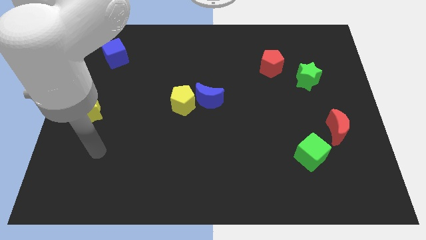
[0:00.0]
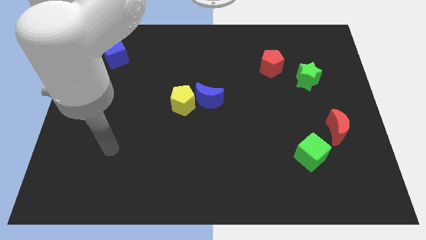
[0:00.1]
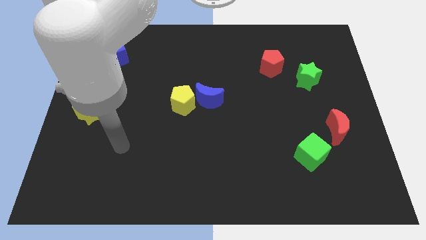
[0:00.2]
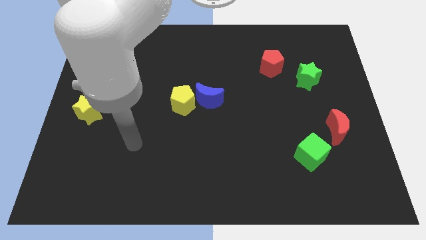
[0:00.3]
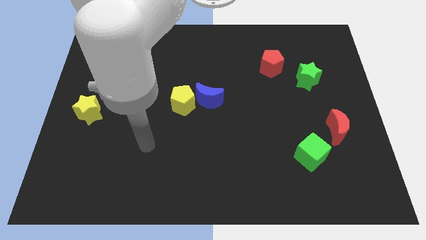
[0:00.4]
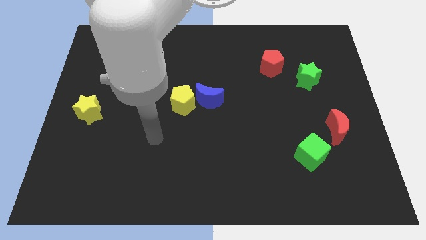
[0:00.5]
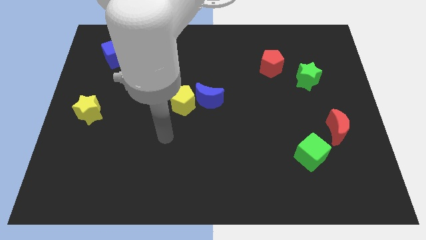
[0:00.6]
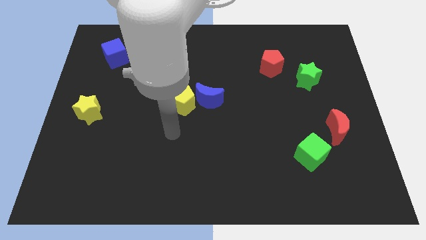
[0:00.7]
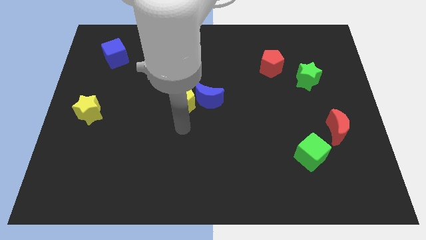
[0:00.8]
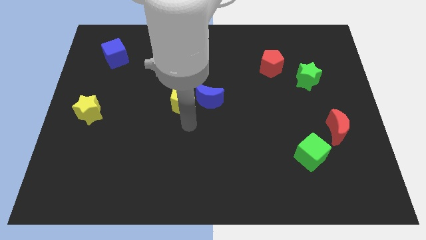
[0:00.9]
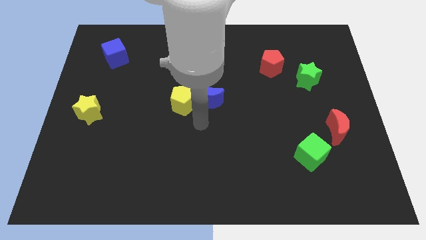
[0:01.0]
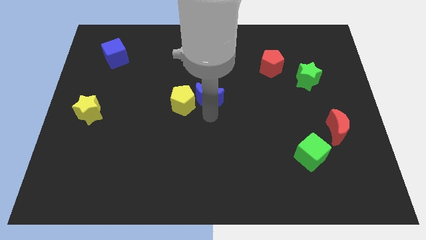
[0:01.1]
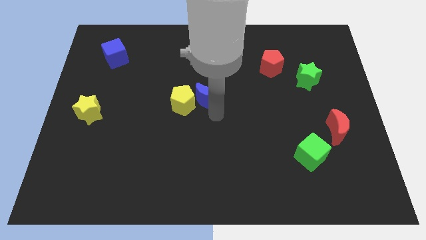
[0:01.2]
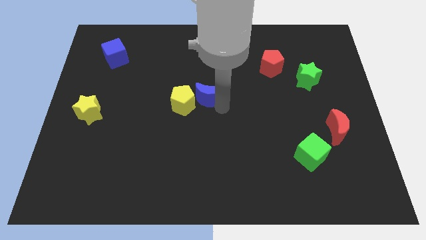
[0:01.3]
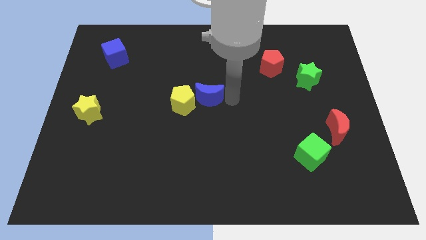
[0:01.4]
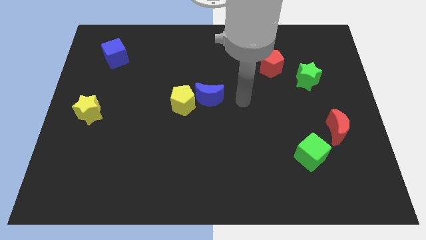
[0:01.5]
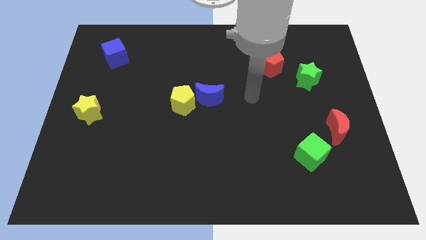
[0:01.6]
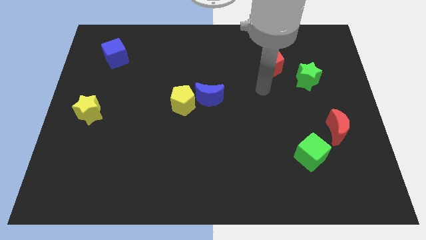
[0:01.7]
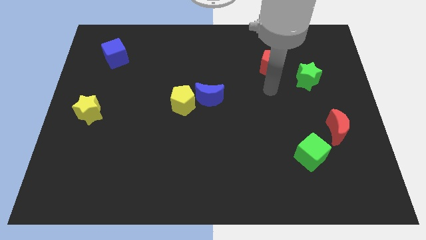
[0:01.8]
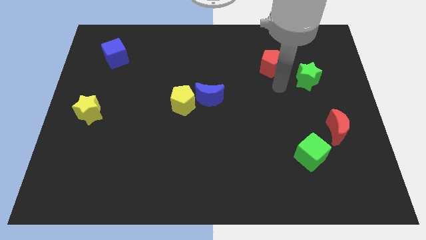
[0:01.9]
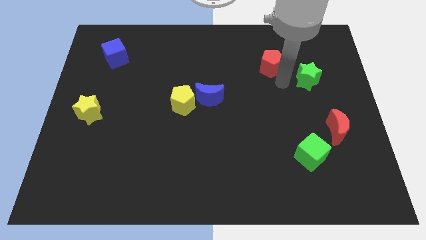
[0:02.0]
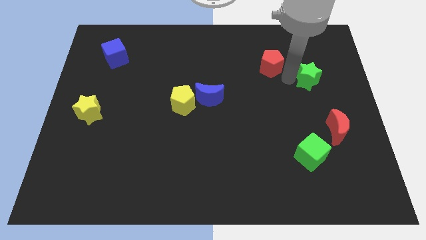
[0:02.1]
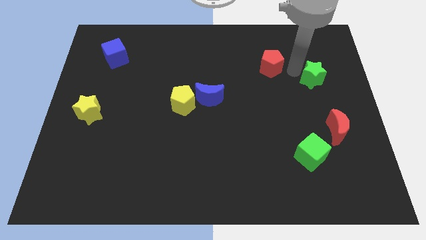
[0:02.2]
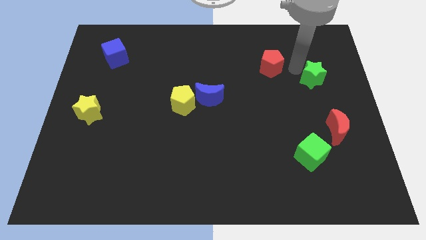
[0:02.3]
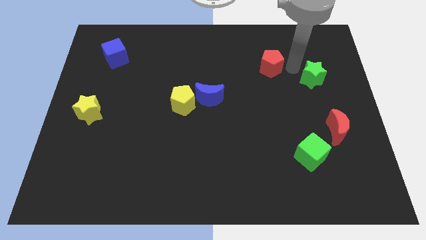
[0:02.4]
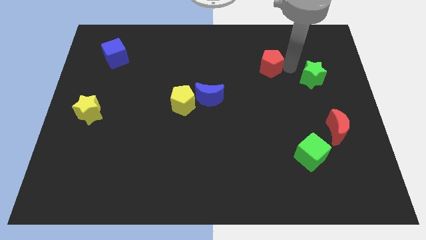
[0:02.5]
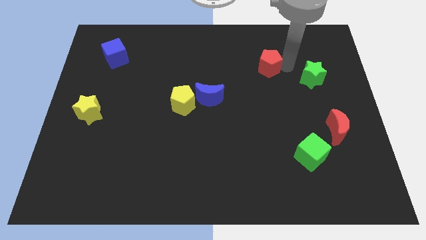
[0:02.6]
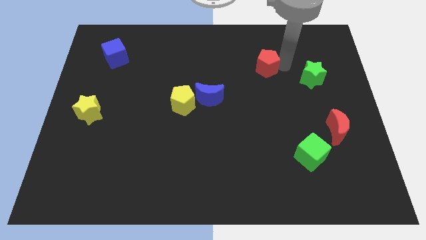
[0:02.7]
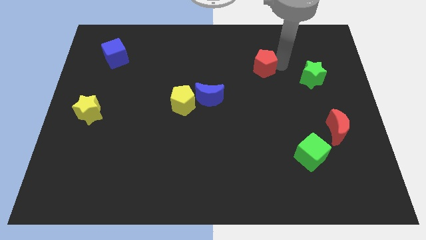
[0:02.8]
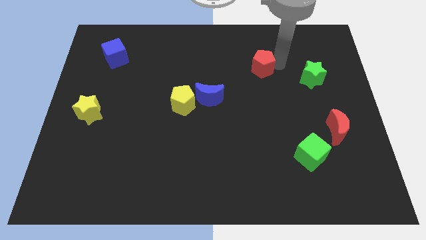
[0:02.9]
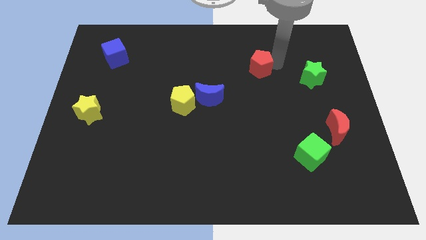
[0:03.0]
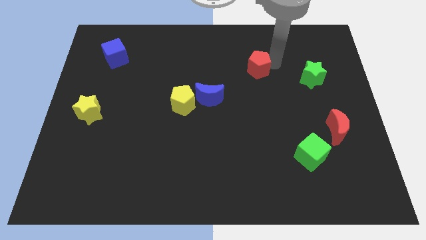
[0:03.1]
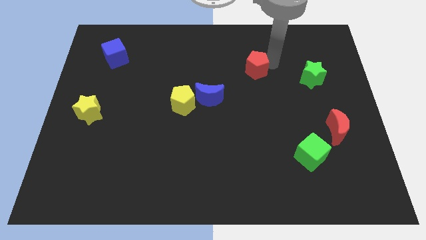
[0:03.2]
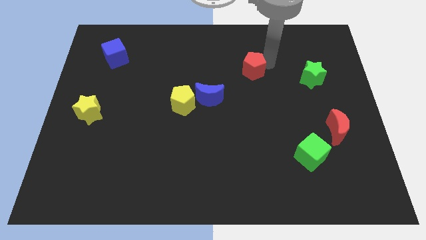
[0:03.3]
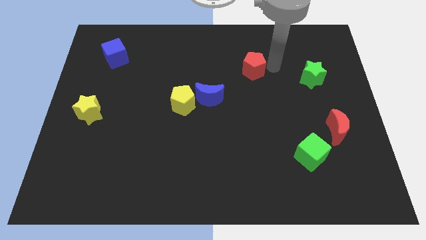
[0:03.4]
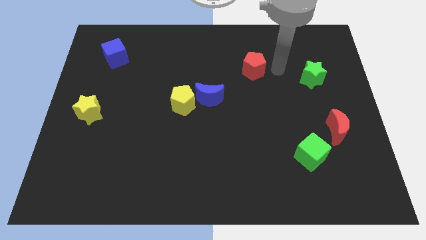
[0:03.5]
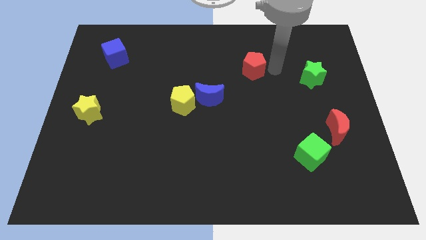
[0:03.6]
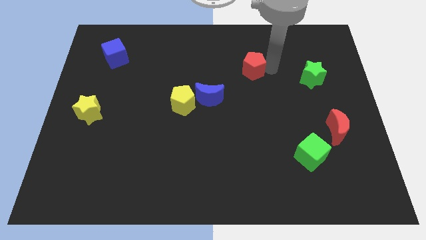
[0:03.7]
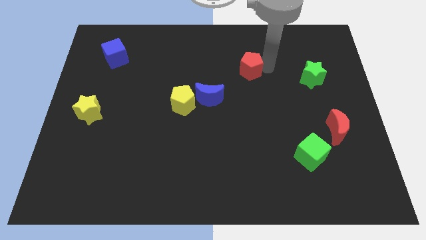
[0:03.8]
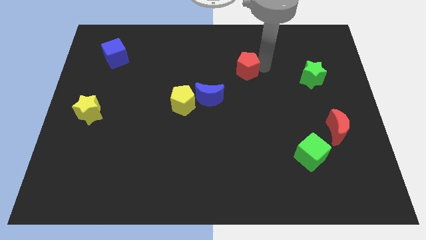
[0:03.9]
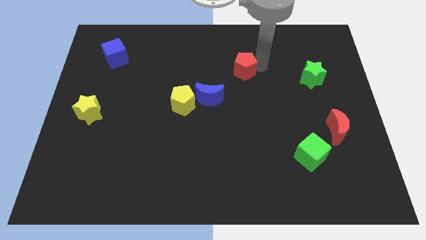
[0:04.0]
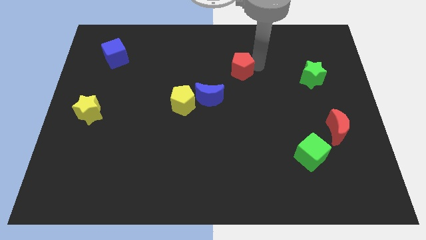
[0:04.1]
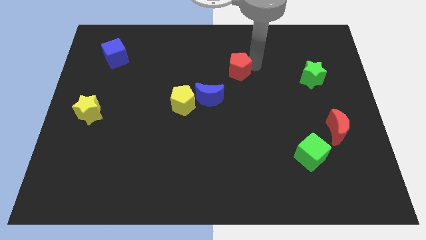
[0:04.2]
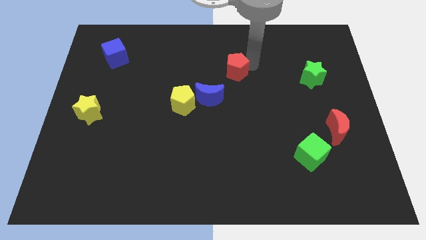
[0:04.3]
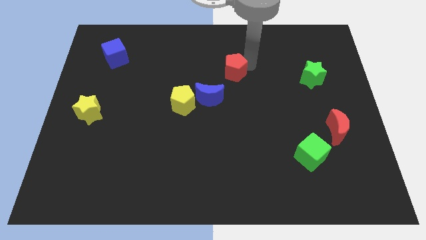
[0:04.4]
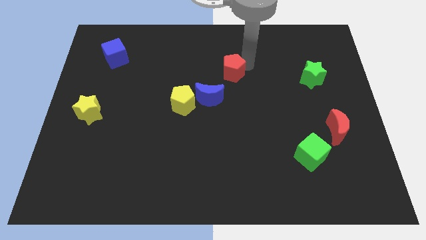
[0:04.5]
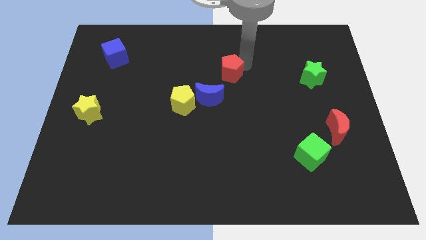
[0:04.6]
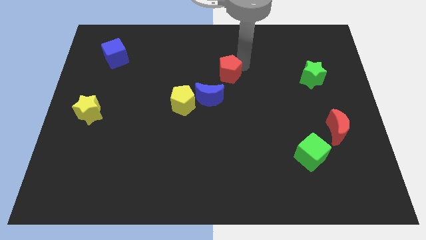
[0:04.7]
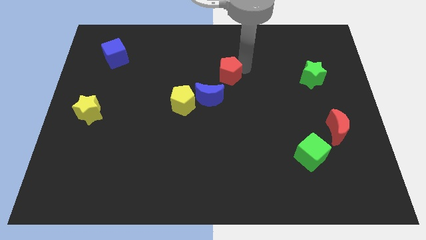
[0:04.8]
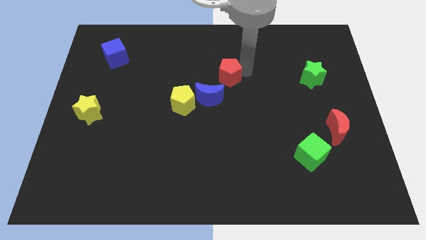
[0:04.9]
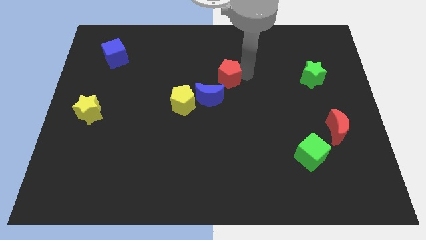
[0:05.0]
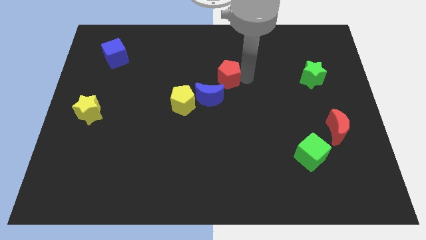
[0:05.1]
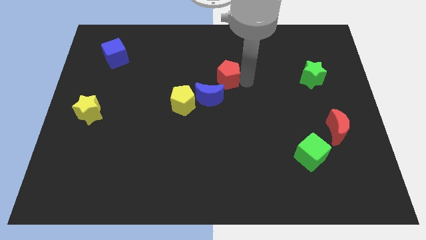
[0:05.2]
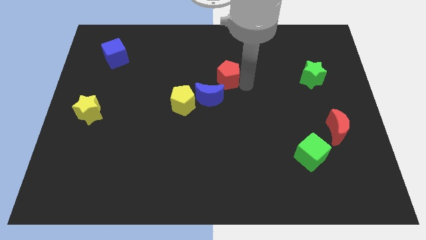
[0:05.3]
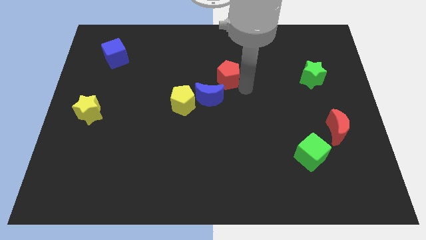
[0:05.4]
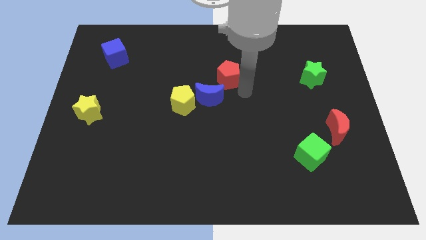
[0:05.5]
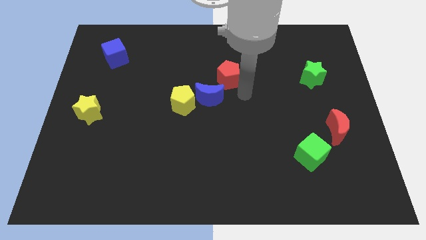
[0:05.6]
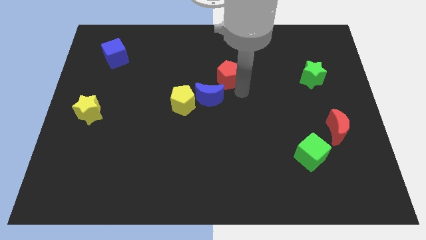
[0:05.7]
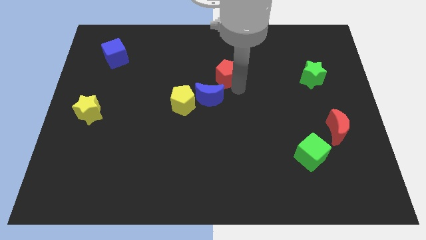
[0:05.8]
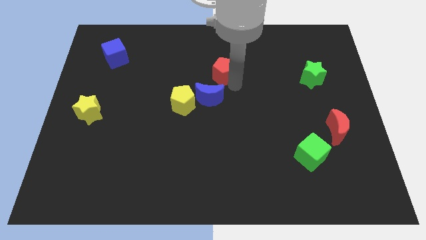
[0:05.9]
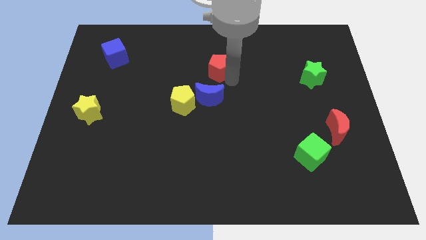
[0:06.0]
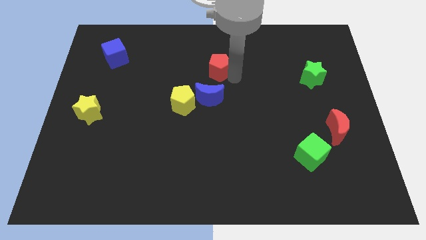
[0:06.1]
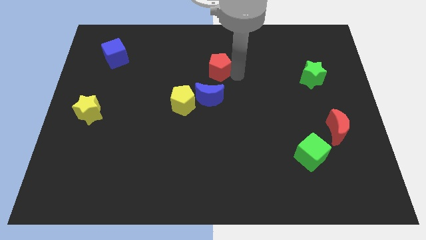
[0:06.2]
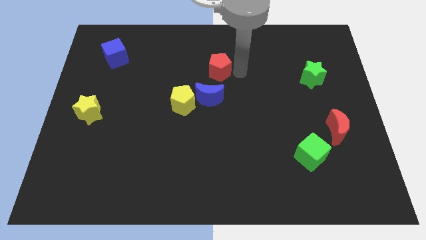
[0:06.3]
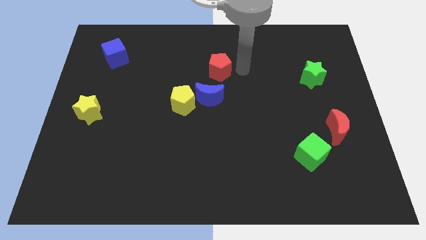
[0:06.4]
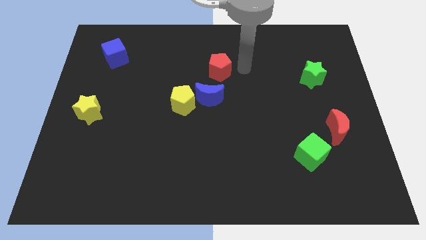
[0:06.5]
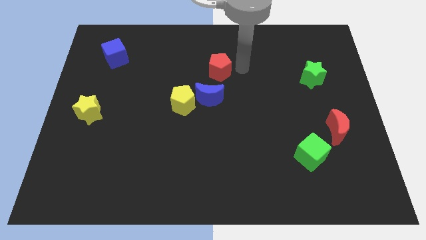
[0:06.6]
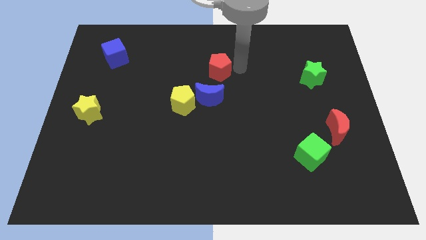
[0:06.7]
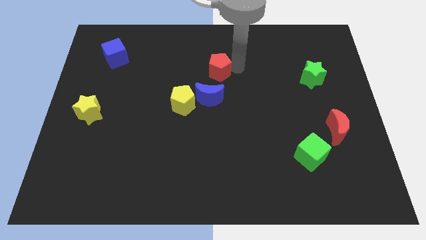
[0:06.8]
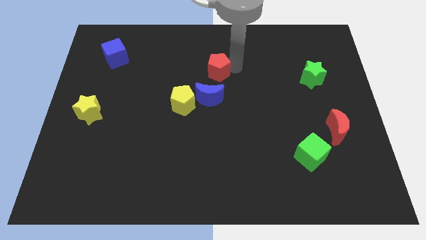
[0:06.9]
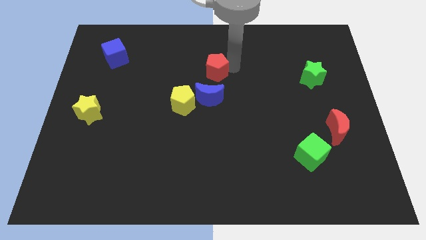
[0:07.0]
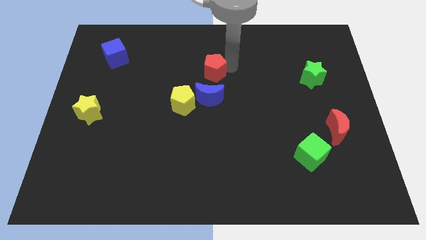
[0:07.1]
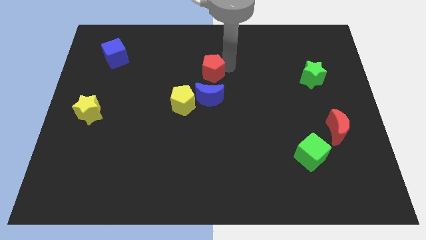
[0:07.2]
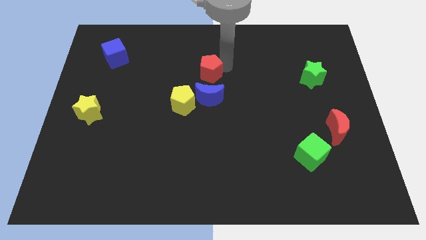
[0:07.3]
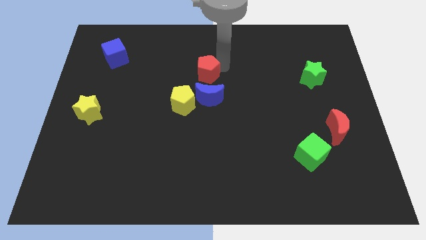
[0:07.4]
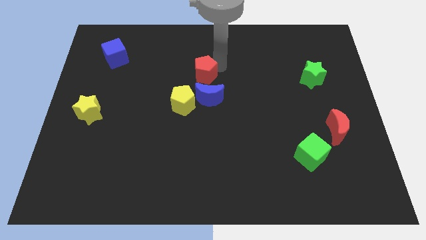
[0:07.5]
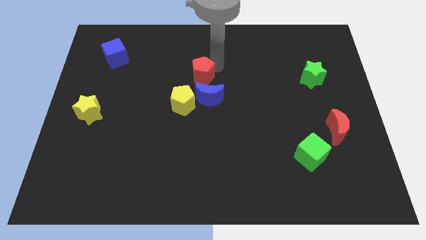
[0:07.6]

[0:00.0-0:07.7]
slide the red pentagon above the yellow pentagon
